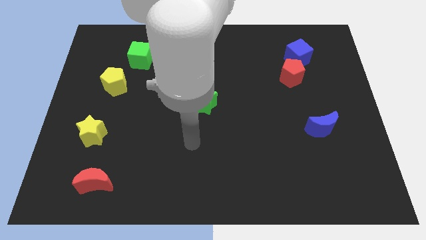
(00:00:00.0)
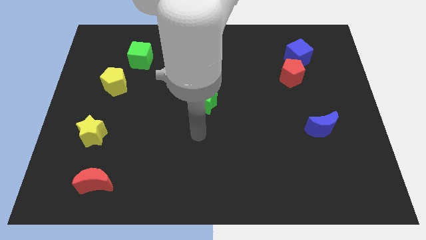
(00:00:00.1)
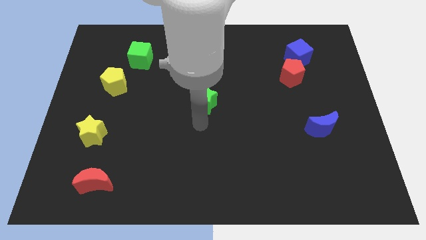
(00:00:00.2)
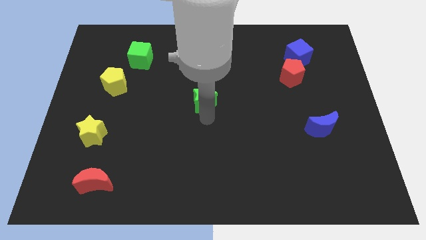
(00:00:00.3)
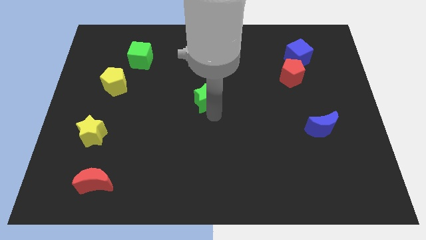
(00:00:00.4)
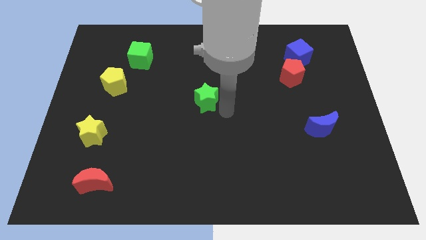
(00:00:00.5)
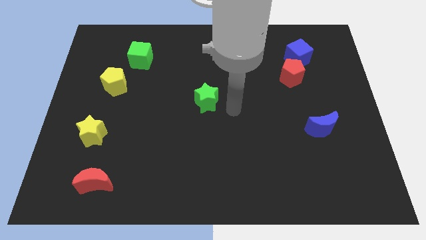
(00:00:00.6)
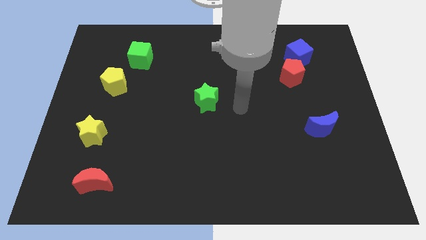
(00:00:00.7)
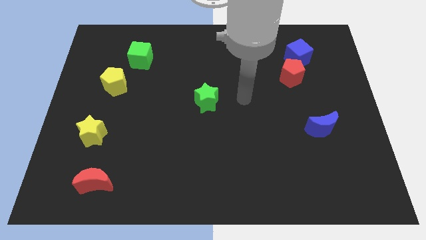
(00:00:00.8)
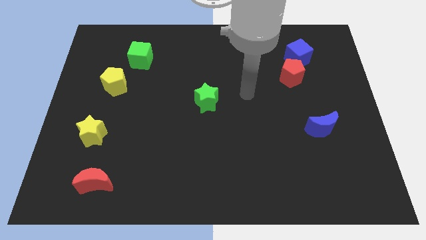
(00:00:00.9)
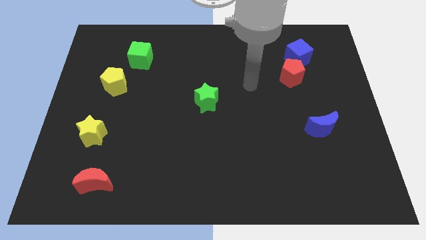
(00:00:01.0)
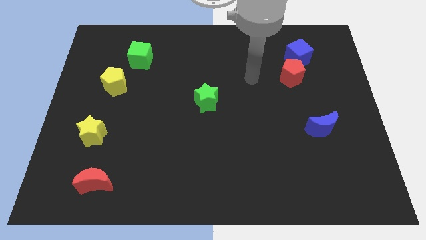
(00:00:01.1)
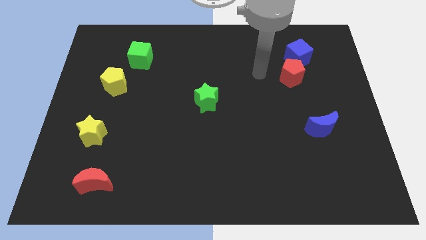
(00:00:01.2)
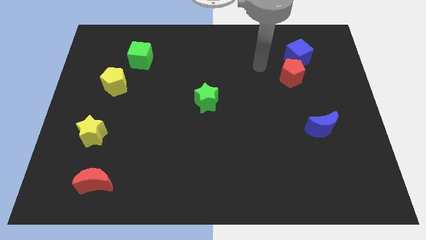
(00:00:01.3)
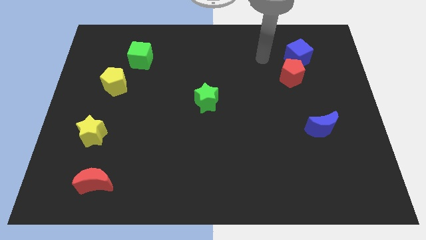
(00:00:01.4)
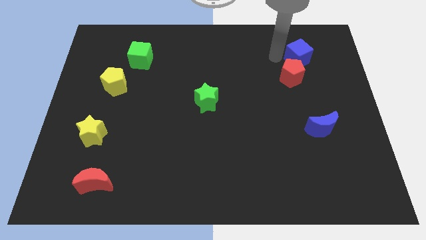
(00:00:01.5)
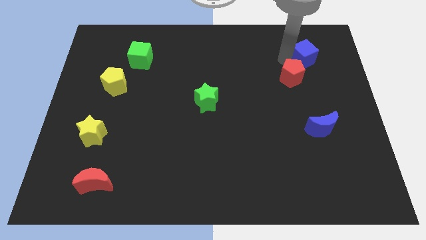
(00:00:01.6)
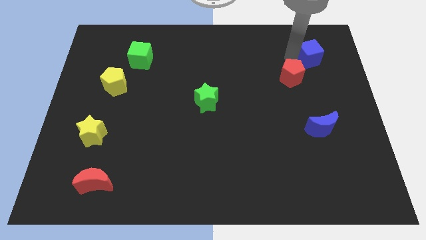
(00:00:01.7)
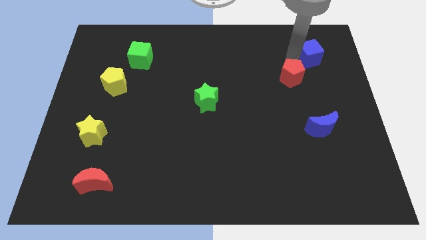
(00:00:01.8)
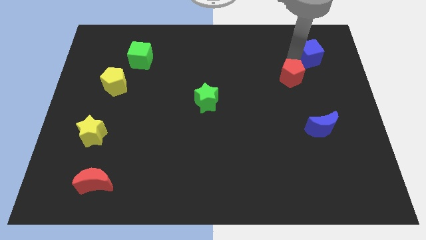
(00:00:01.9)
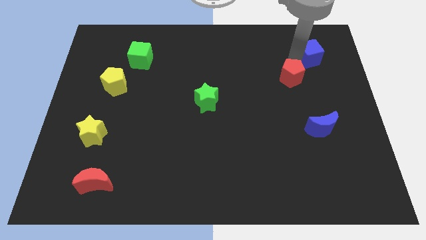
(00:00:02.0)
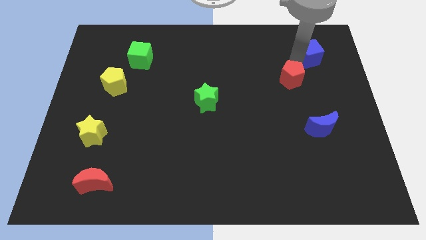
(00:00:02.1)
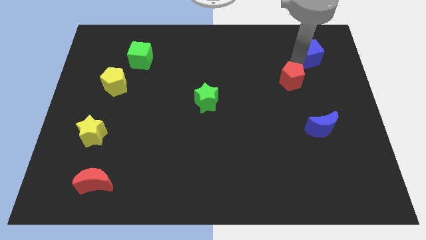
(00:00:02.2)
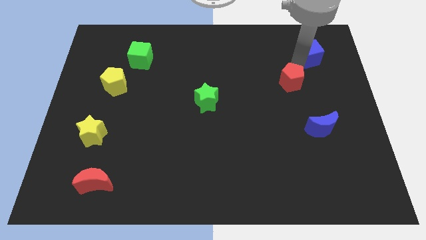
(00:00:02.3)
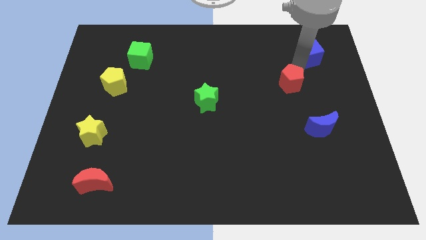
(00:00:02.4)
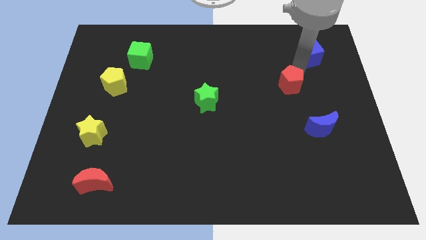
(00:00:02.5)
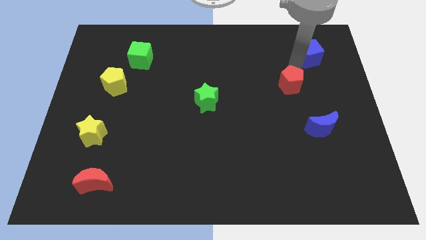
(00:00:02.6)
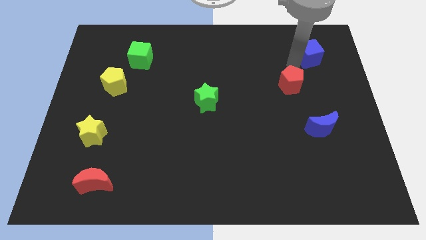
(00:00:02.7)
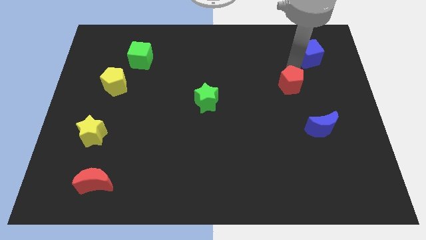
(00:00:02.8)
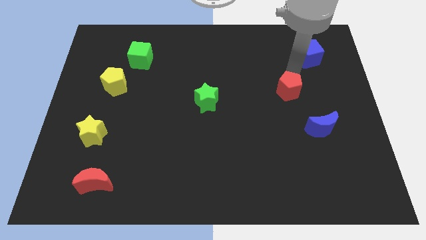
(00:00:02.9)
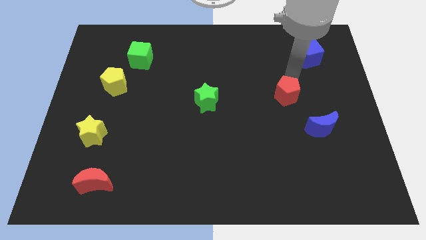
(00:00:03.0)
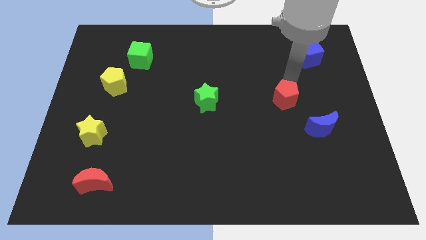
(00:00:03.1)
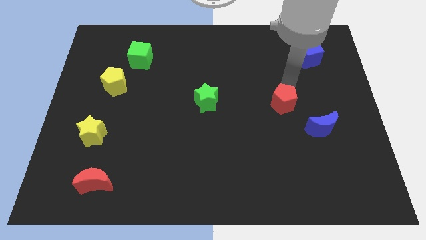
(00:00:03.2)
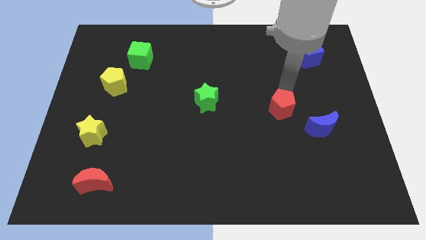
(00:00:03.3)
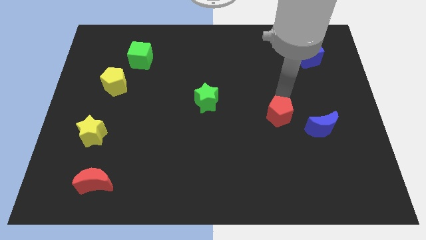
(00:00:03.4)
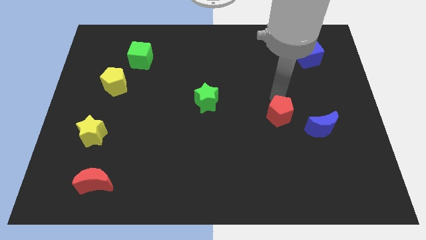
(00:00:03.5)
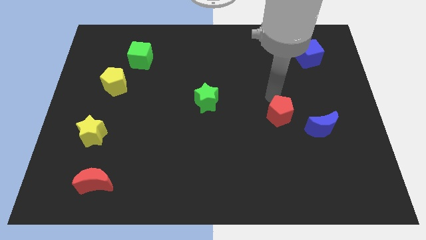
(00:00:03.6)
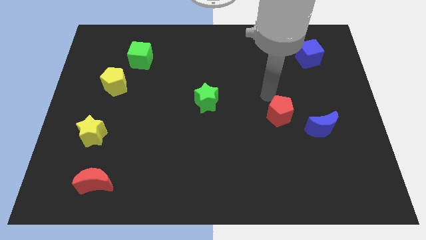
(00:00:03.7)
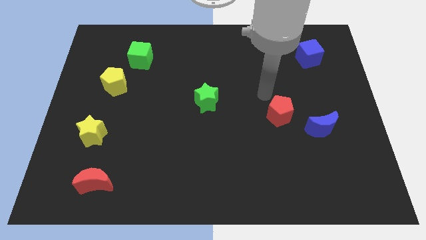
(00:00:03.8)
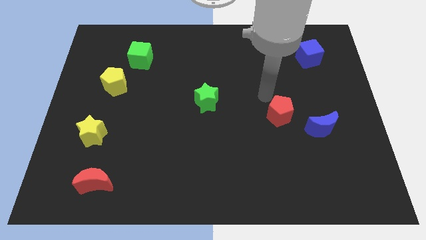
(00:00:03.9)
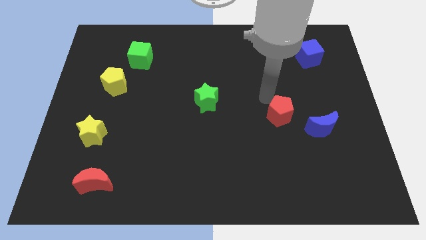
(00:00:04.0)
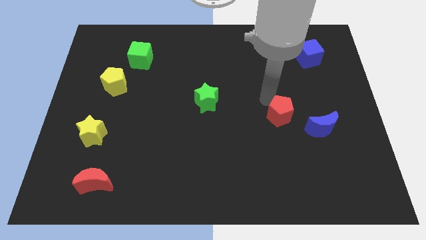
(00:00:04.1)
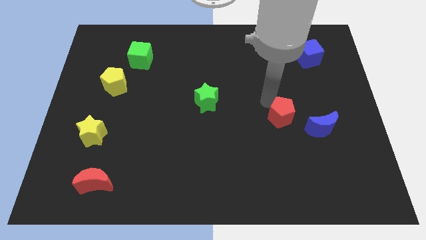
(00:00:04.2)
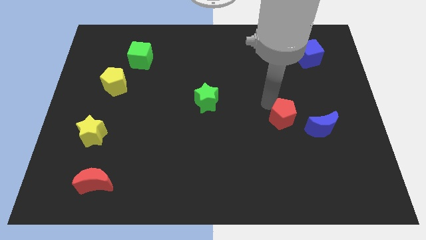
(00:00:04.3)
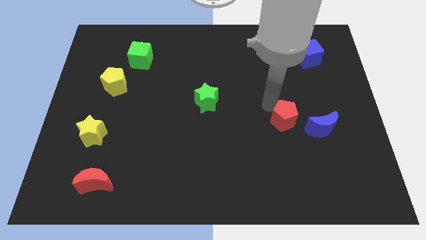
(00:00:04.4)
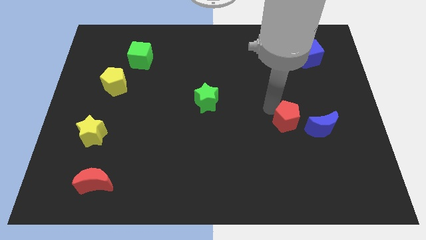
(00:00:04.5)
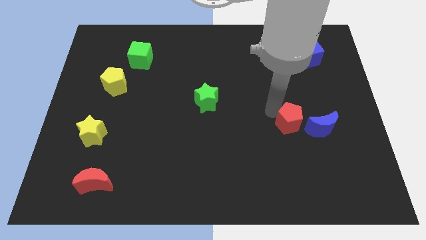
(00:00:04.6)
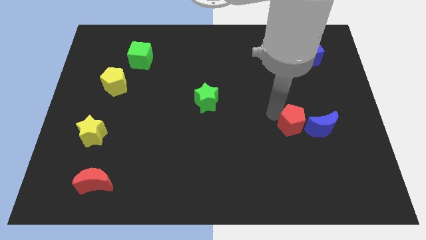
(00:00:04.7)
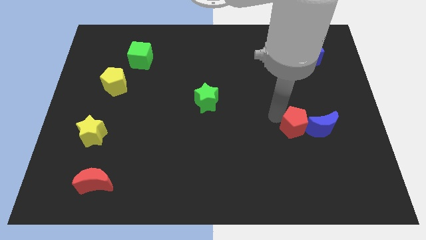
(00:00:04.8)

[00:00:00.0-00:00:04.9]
put the red pentagon to the bottom left of the blue moon
